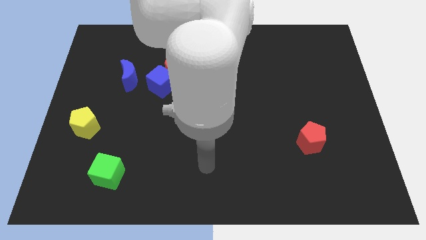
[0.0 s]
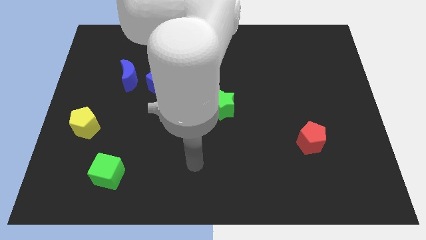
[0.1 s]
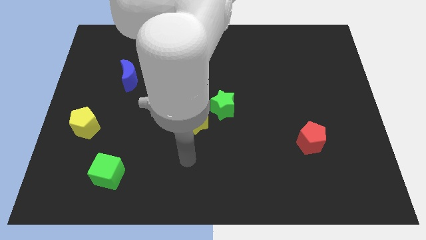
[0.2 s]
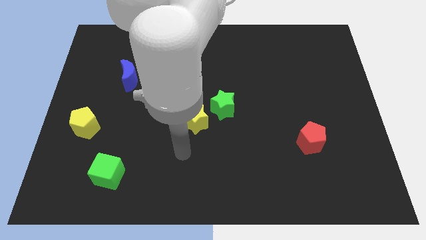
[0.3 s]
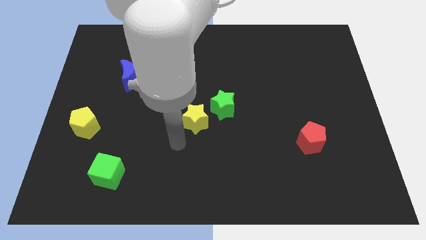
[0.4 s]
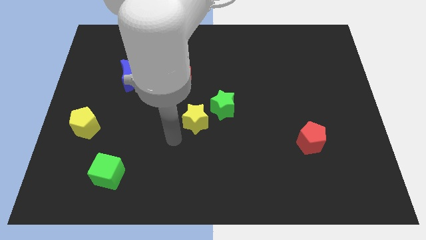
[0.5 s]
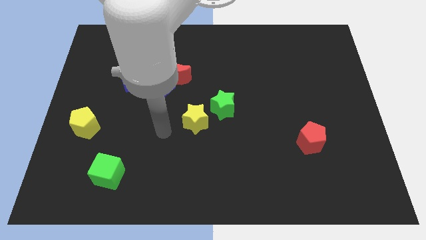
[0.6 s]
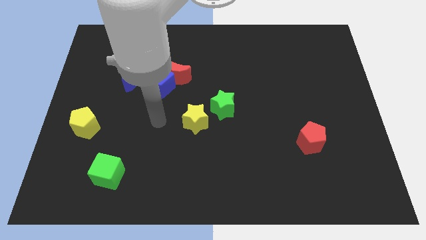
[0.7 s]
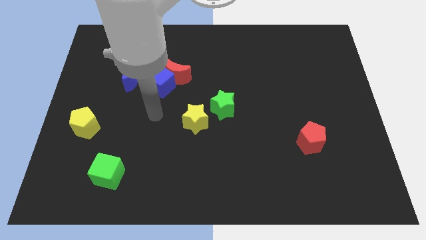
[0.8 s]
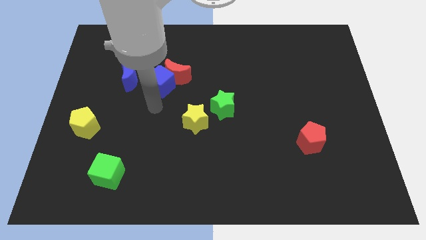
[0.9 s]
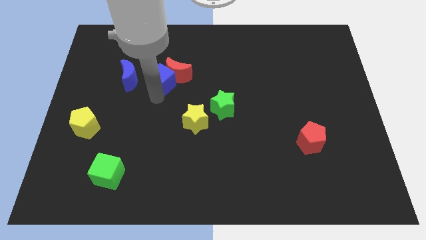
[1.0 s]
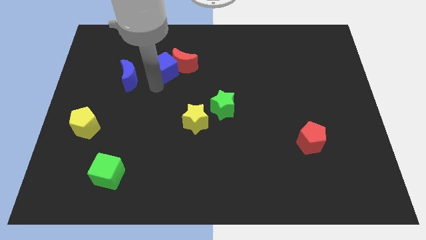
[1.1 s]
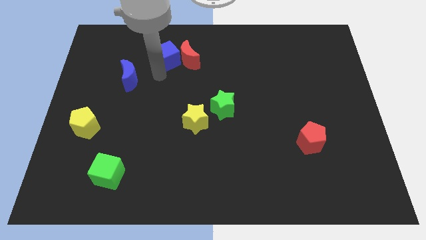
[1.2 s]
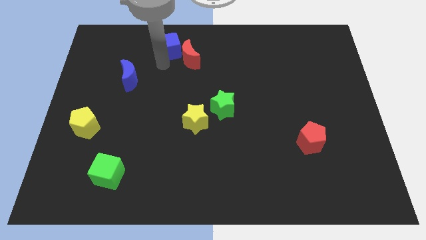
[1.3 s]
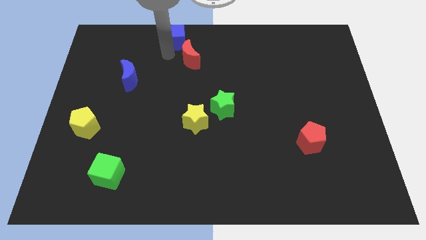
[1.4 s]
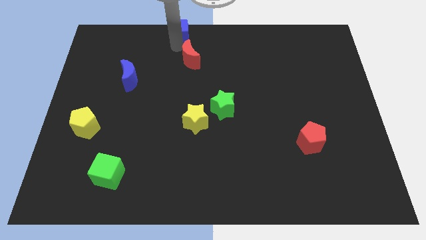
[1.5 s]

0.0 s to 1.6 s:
separate the red moon from the blue cube

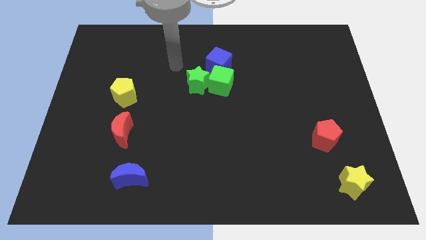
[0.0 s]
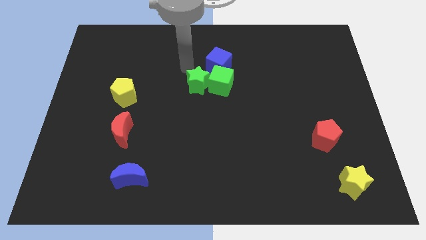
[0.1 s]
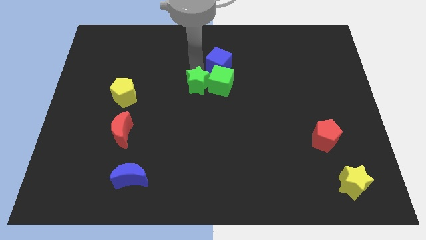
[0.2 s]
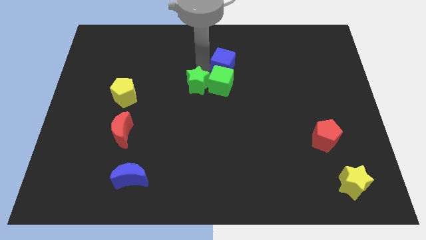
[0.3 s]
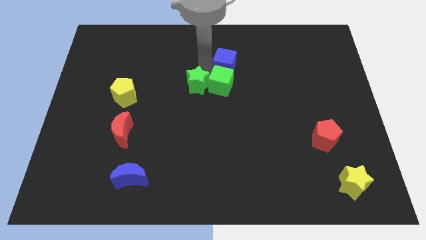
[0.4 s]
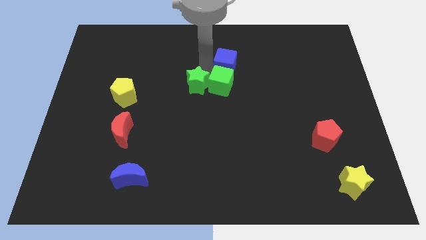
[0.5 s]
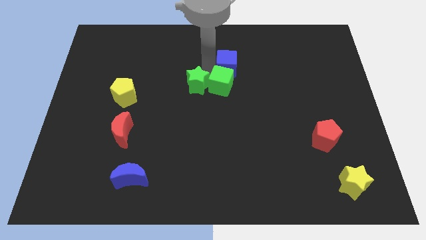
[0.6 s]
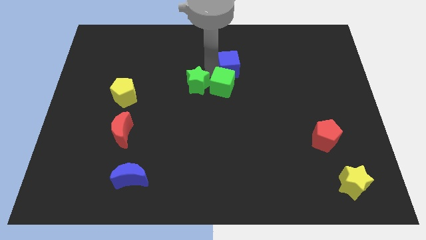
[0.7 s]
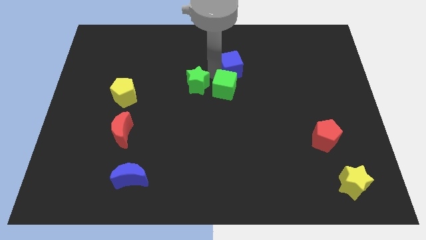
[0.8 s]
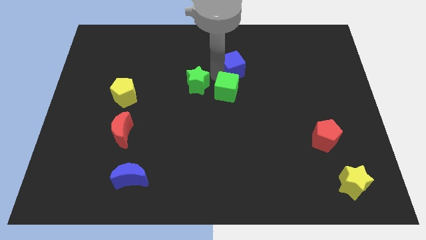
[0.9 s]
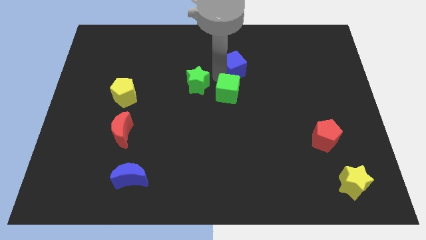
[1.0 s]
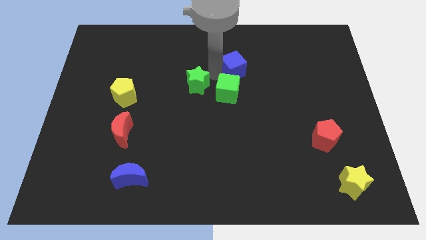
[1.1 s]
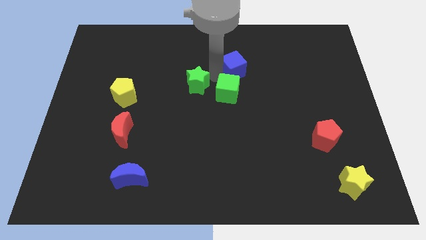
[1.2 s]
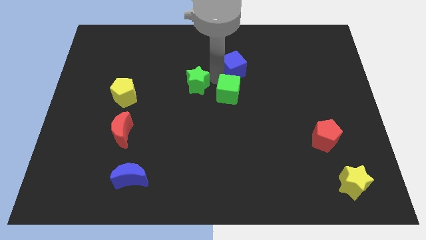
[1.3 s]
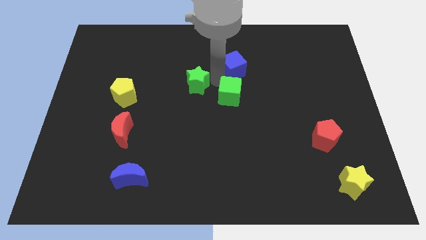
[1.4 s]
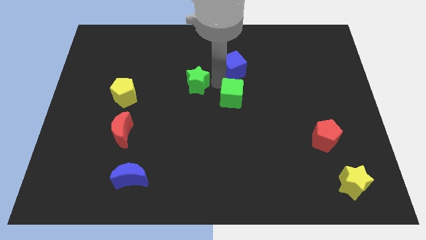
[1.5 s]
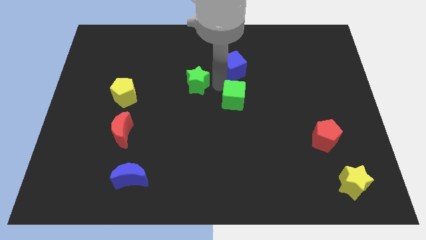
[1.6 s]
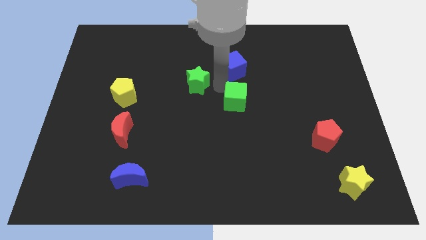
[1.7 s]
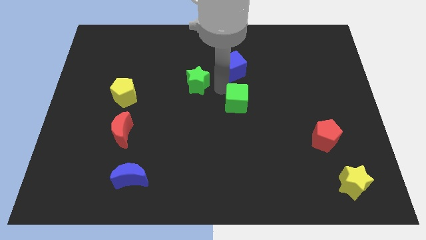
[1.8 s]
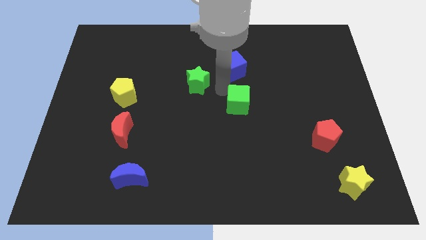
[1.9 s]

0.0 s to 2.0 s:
pull the green cube apart from the green star and blue cube

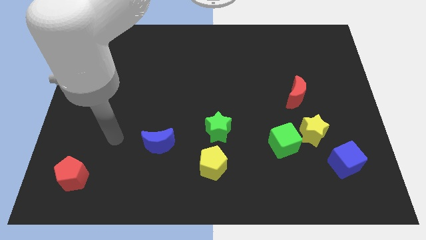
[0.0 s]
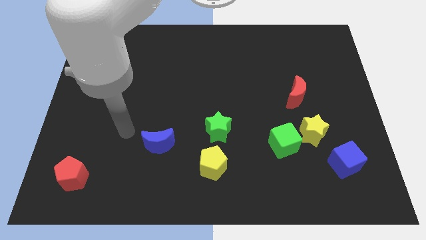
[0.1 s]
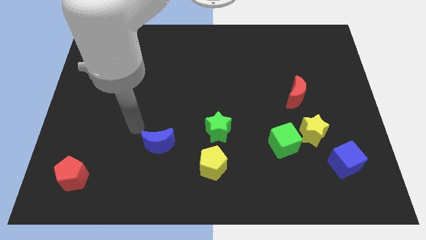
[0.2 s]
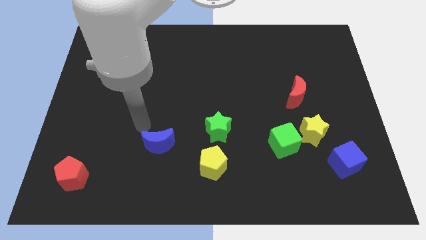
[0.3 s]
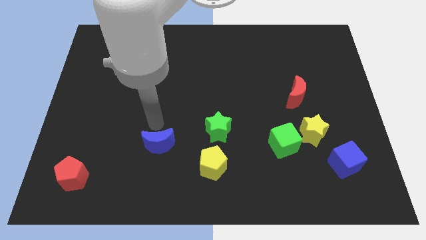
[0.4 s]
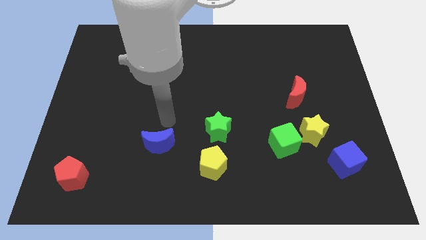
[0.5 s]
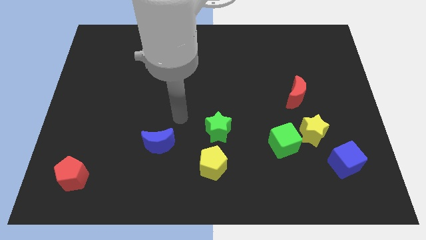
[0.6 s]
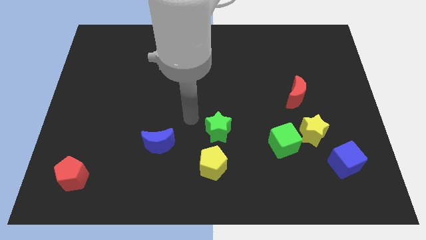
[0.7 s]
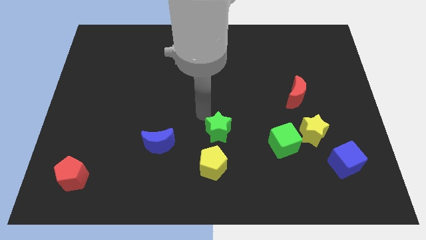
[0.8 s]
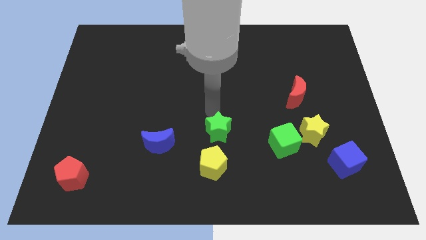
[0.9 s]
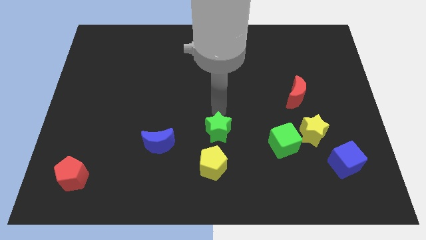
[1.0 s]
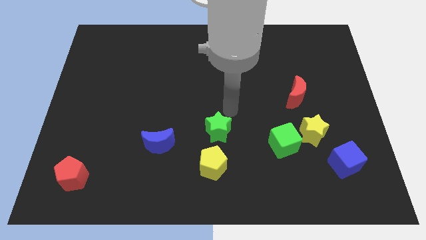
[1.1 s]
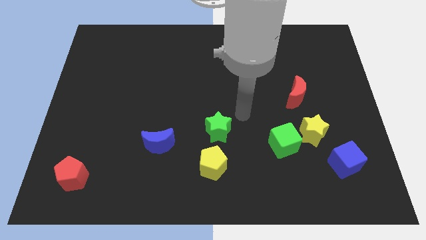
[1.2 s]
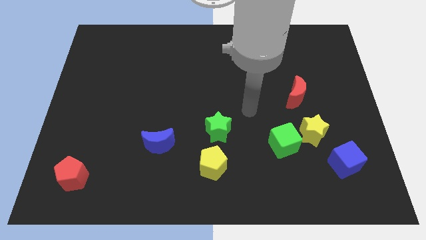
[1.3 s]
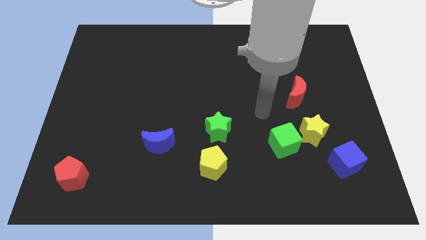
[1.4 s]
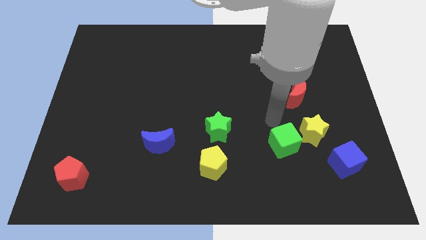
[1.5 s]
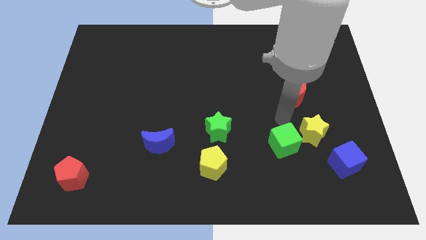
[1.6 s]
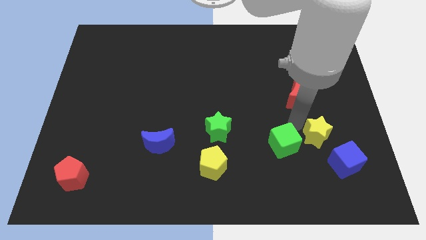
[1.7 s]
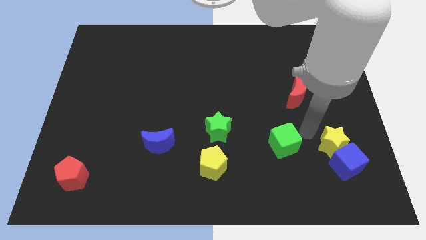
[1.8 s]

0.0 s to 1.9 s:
pull the green cube apart from the yellow star

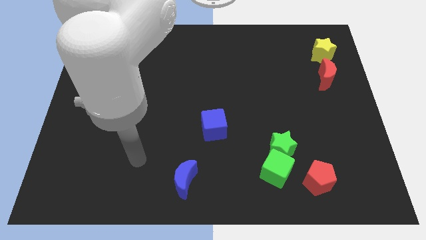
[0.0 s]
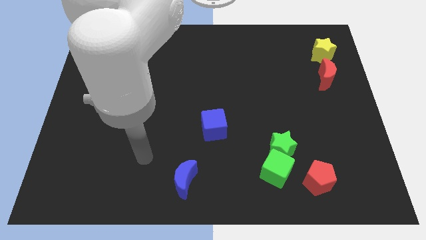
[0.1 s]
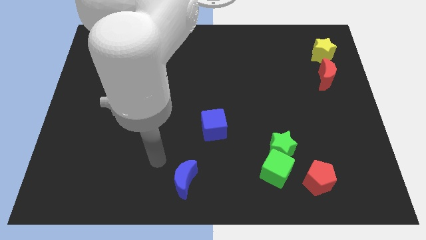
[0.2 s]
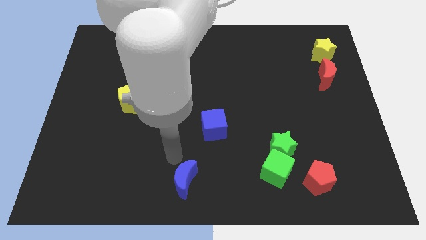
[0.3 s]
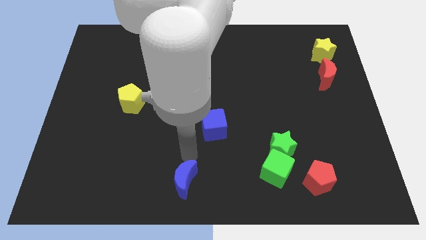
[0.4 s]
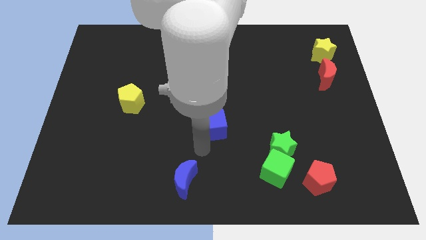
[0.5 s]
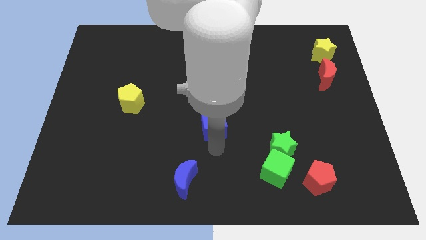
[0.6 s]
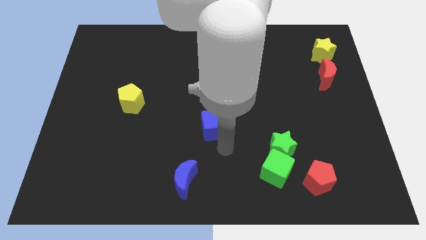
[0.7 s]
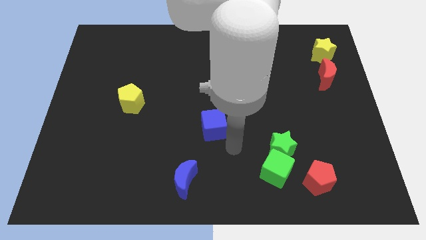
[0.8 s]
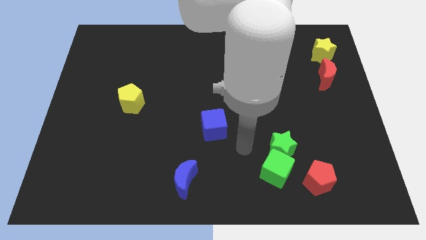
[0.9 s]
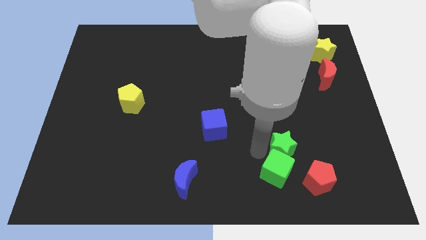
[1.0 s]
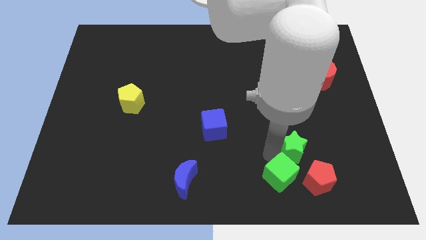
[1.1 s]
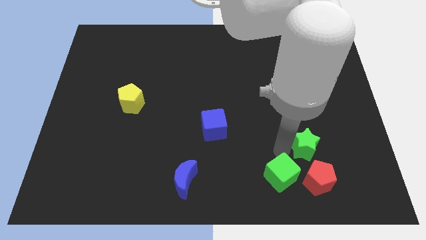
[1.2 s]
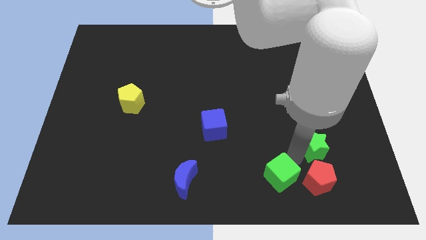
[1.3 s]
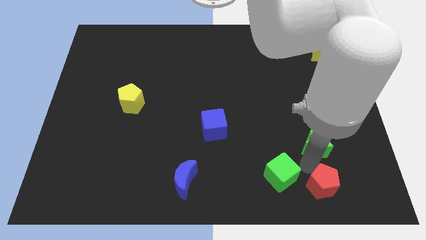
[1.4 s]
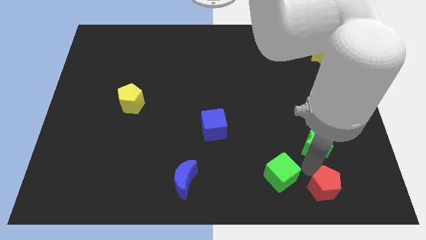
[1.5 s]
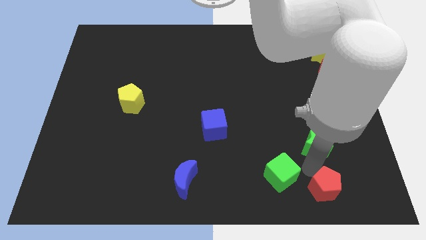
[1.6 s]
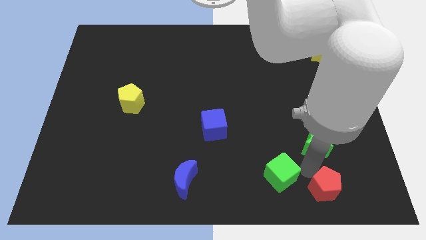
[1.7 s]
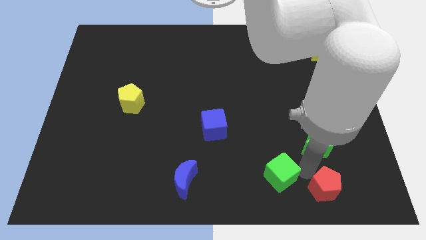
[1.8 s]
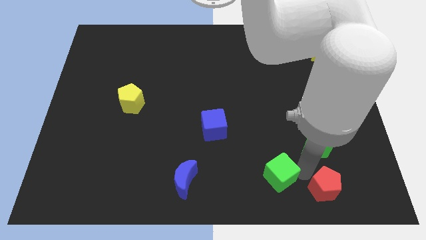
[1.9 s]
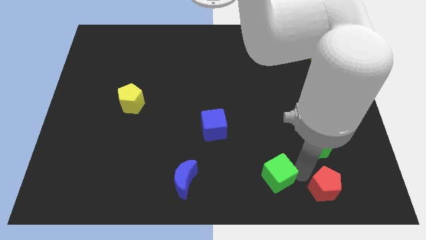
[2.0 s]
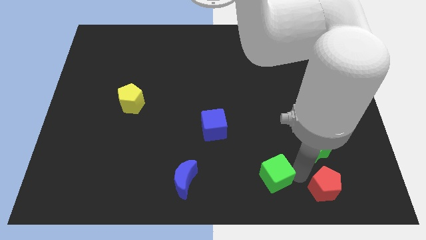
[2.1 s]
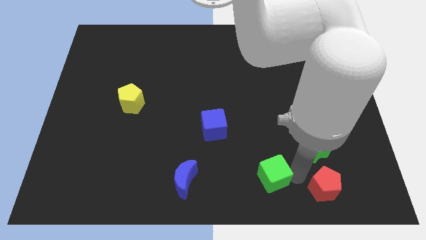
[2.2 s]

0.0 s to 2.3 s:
separate the green cube from the green star and red pentagon

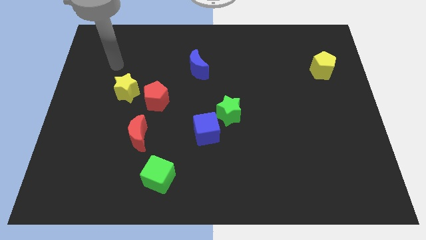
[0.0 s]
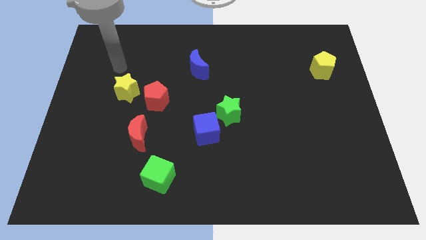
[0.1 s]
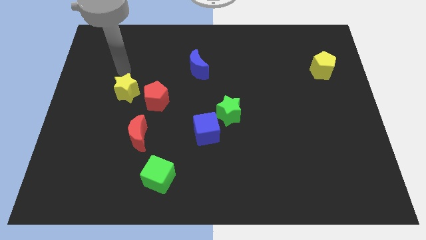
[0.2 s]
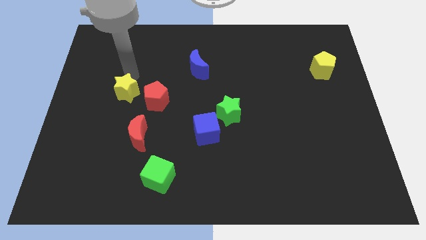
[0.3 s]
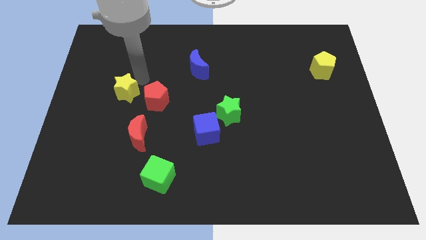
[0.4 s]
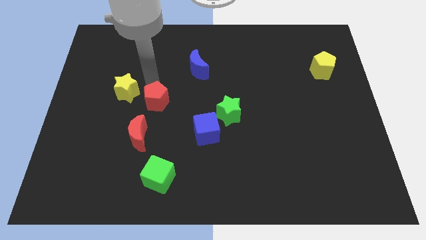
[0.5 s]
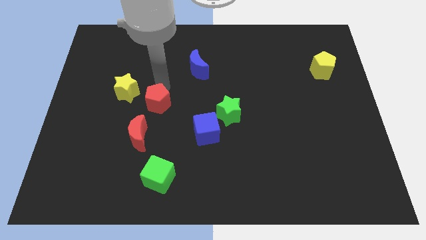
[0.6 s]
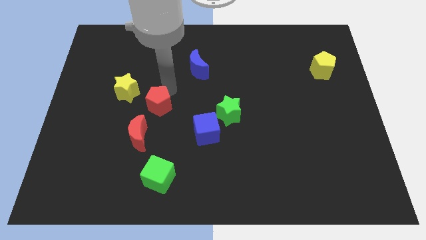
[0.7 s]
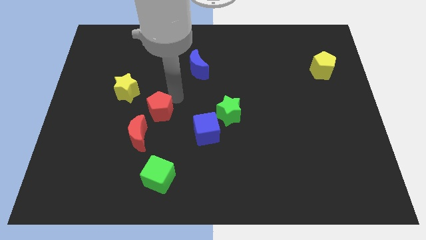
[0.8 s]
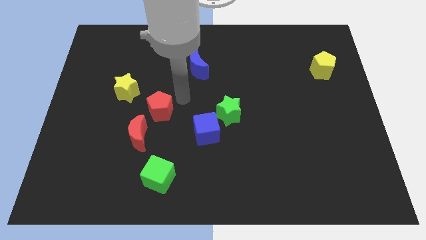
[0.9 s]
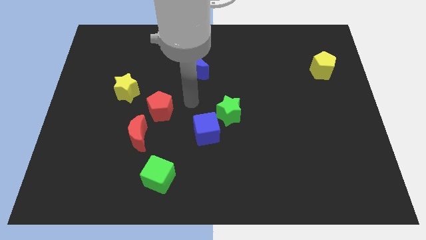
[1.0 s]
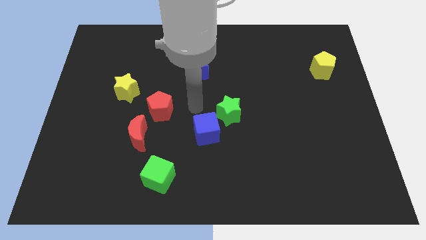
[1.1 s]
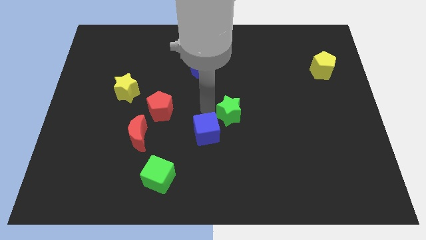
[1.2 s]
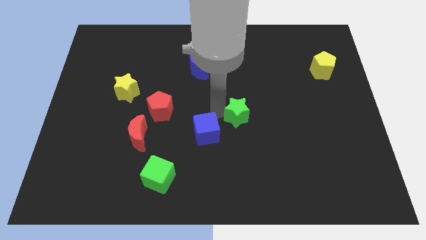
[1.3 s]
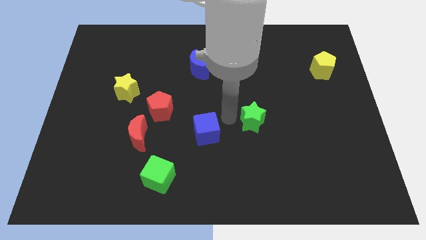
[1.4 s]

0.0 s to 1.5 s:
pull the blue cube apart from the green star
